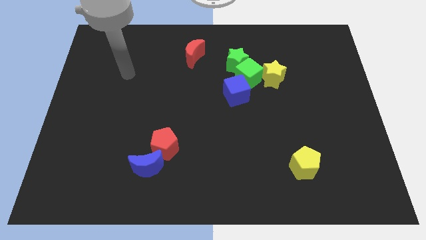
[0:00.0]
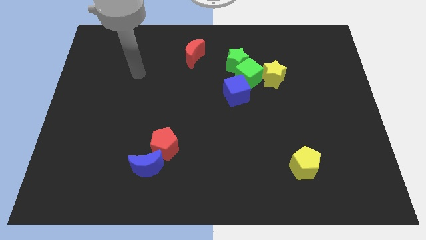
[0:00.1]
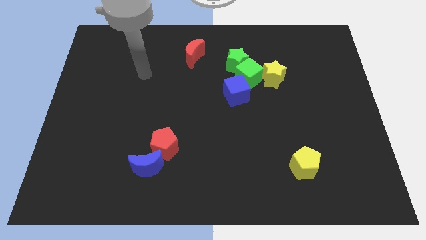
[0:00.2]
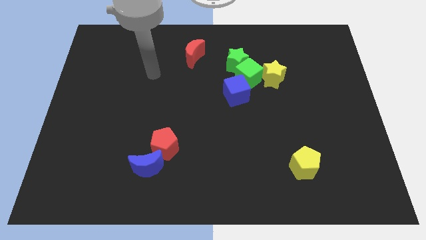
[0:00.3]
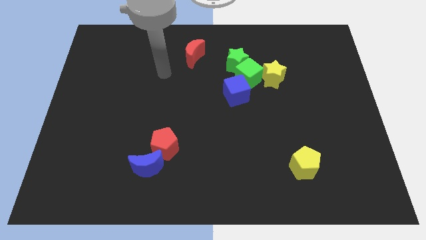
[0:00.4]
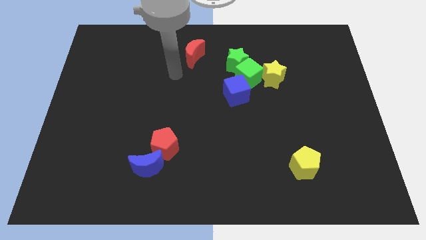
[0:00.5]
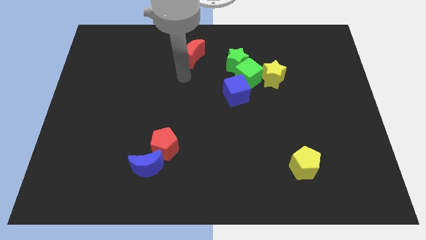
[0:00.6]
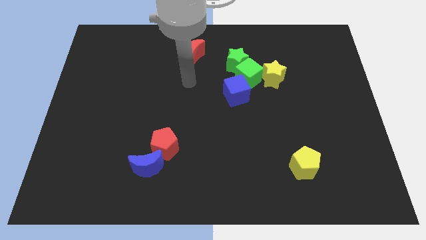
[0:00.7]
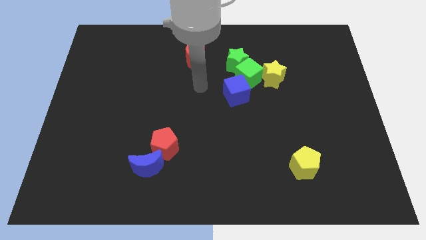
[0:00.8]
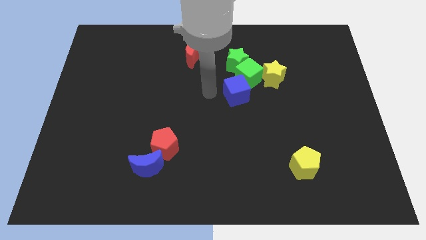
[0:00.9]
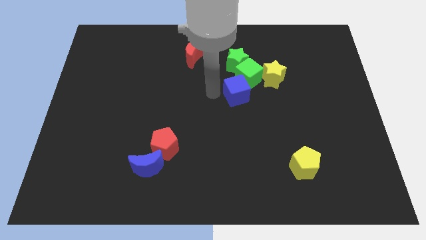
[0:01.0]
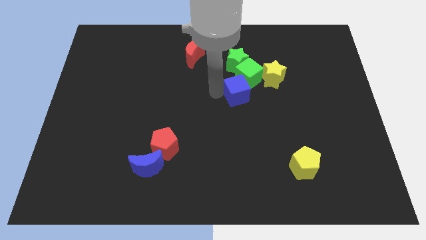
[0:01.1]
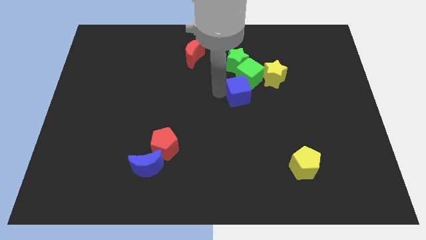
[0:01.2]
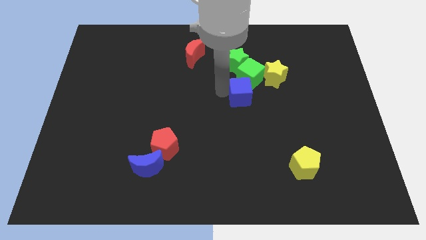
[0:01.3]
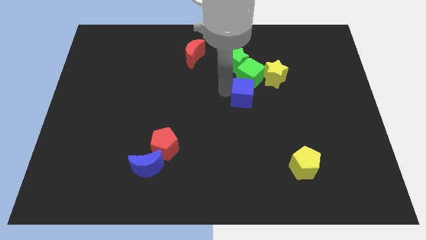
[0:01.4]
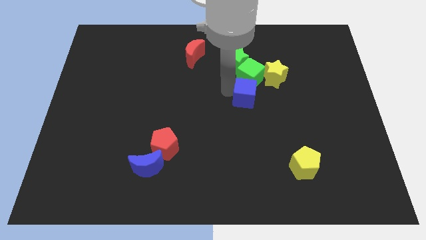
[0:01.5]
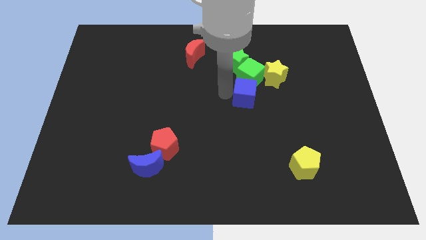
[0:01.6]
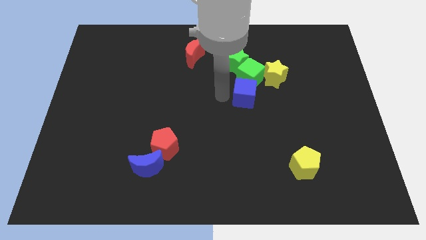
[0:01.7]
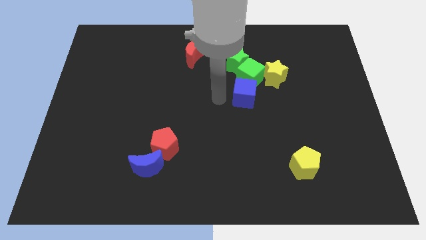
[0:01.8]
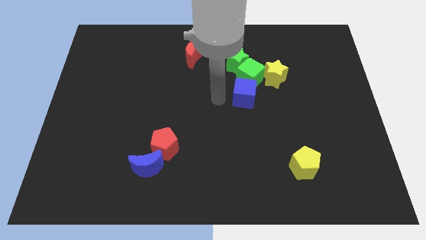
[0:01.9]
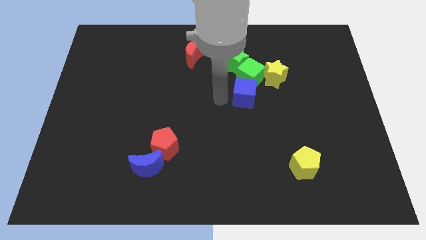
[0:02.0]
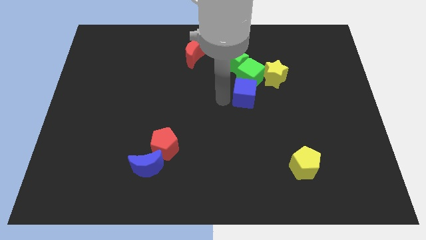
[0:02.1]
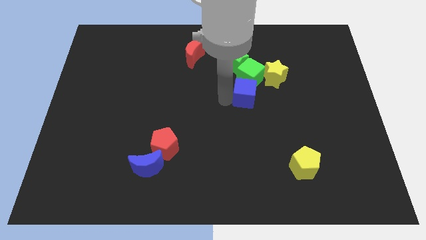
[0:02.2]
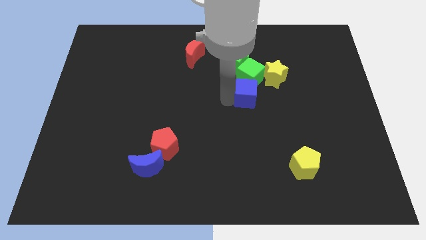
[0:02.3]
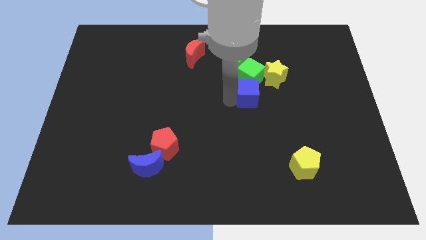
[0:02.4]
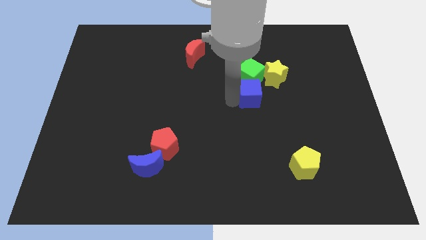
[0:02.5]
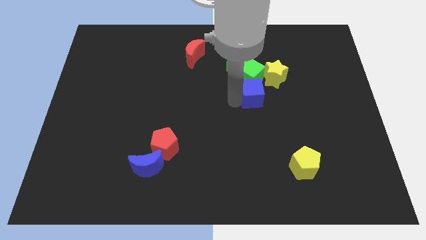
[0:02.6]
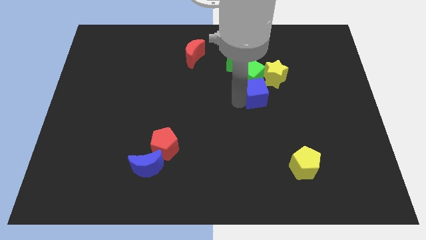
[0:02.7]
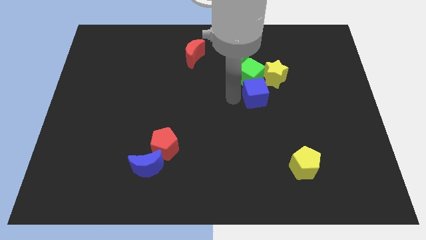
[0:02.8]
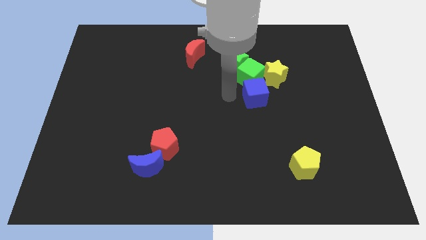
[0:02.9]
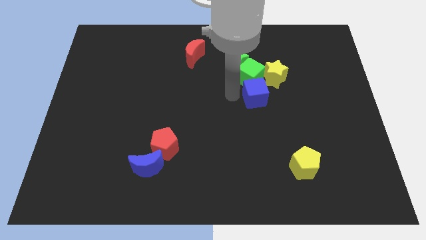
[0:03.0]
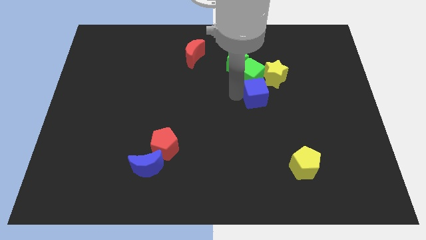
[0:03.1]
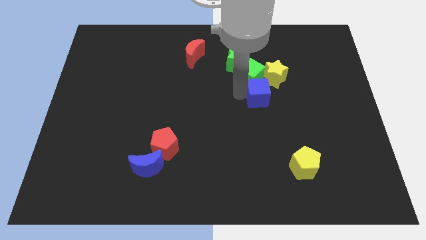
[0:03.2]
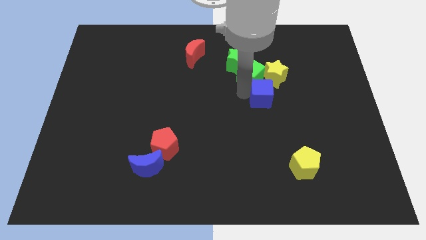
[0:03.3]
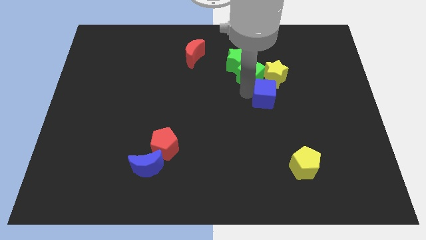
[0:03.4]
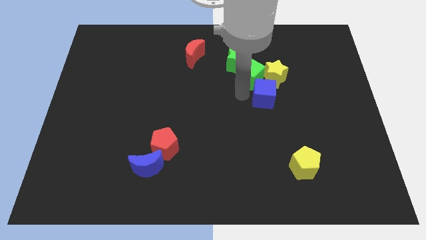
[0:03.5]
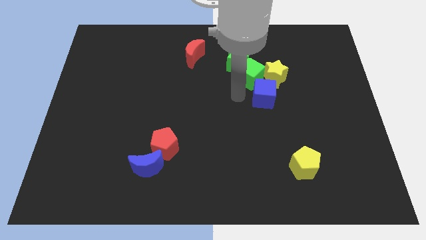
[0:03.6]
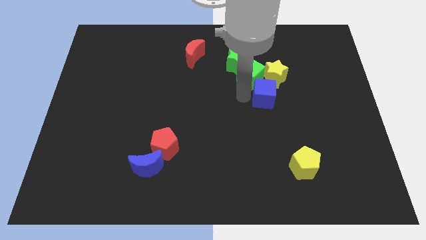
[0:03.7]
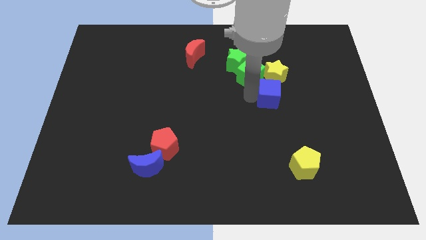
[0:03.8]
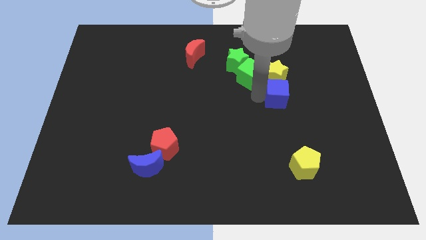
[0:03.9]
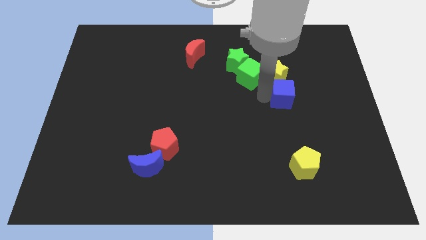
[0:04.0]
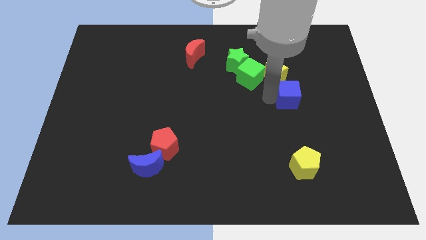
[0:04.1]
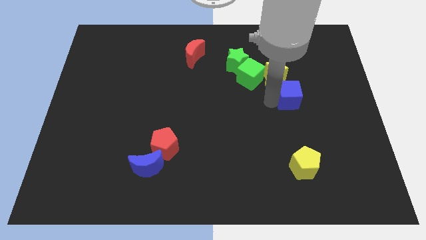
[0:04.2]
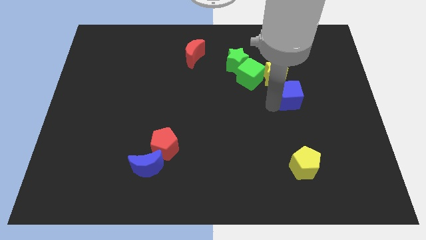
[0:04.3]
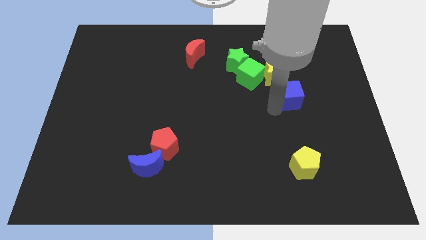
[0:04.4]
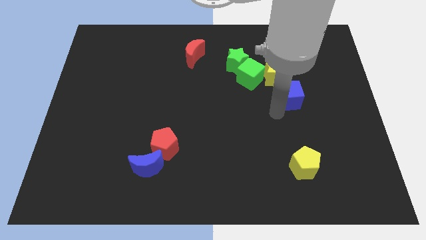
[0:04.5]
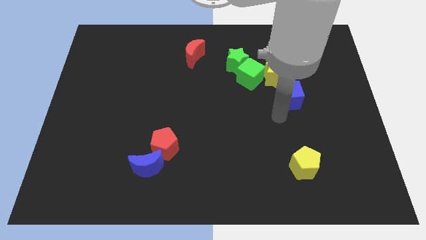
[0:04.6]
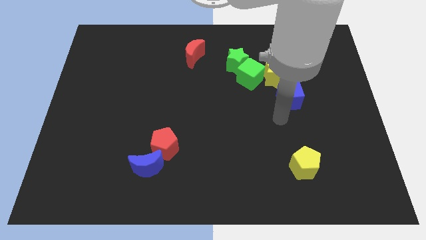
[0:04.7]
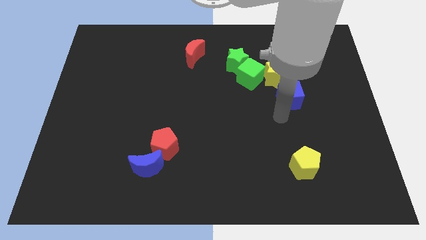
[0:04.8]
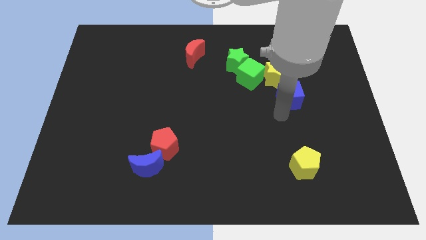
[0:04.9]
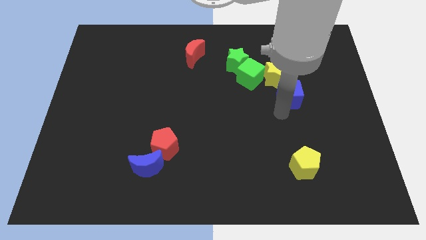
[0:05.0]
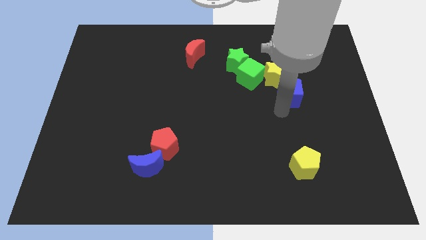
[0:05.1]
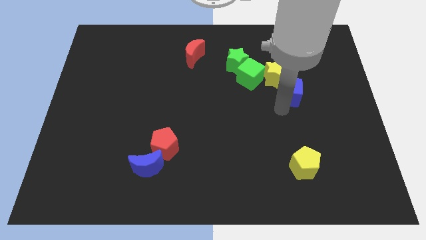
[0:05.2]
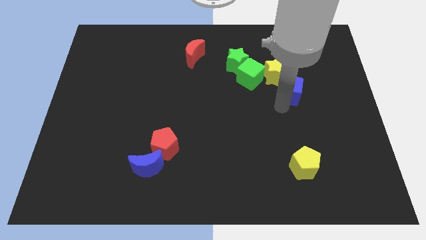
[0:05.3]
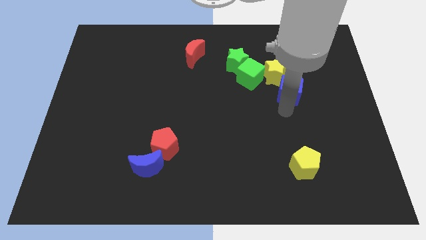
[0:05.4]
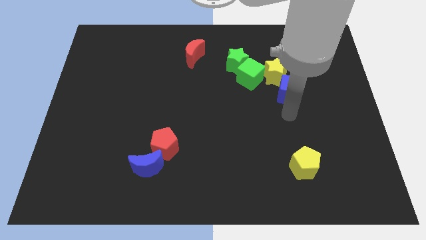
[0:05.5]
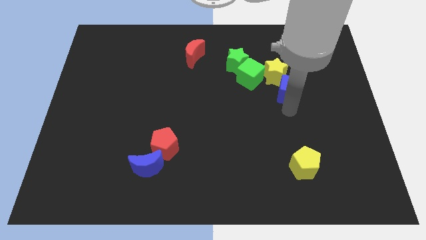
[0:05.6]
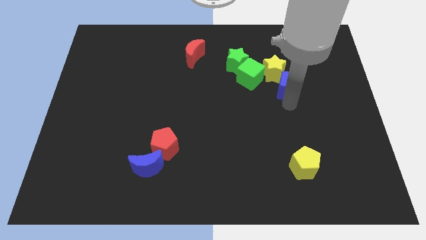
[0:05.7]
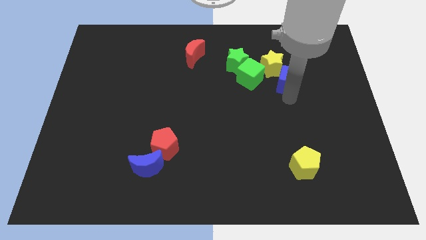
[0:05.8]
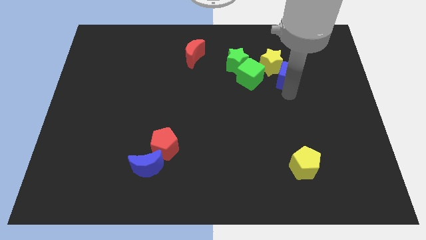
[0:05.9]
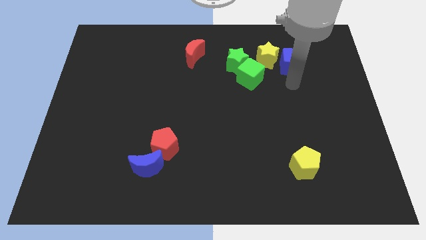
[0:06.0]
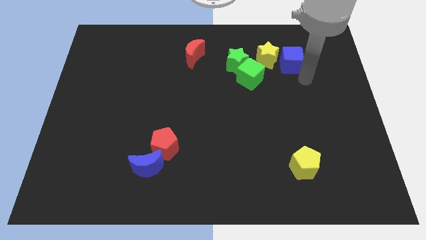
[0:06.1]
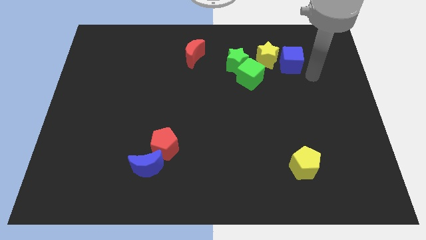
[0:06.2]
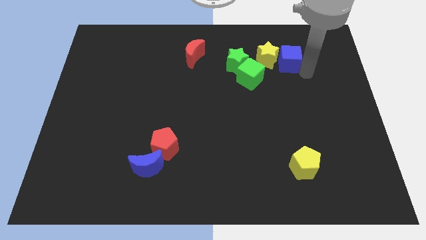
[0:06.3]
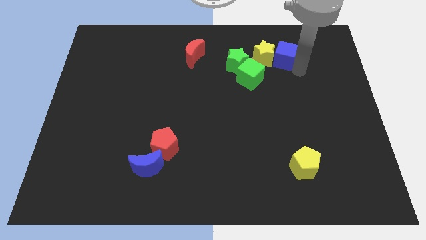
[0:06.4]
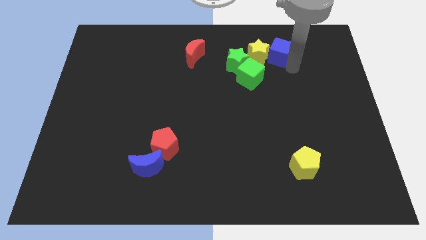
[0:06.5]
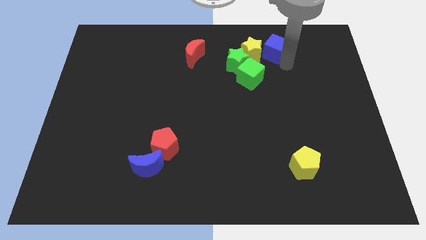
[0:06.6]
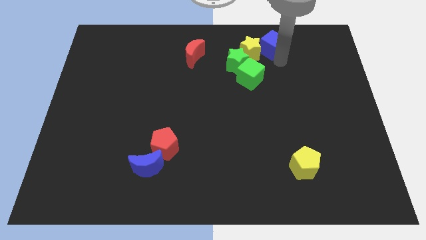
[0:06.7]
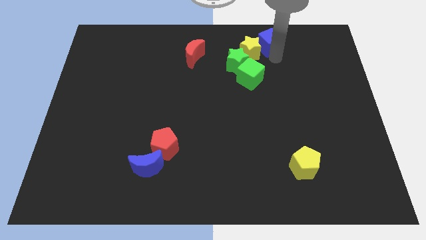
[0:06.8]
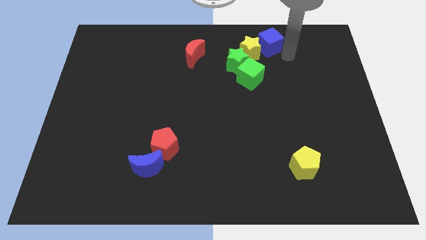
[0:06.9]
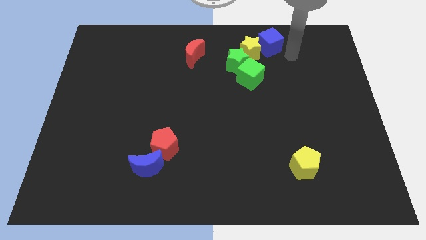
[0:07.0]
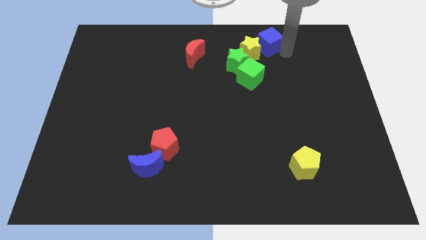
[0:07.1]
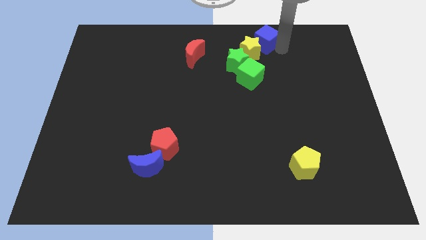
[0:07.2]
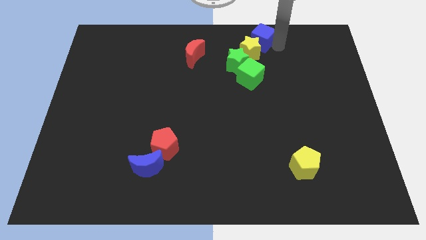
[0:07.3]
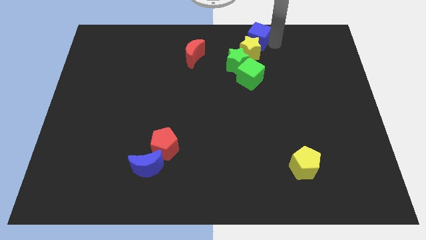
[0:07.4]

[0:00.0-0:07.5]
put the blue cube to the top side
